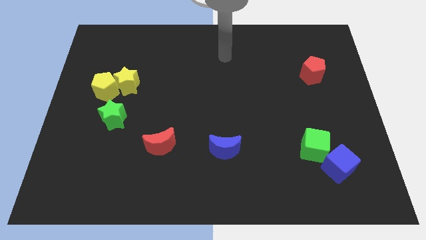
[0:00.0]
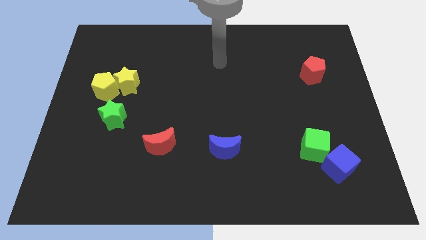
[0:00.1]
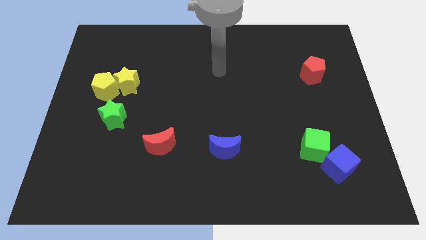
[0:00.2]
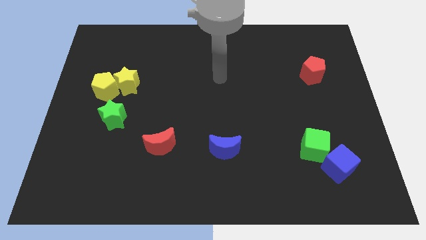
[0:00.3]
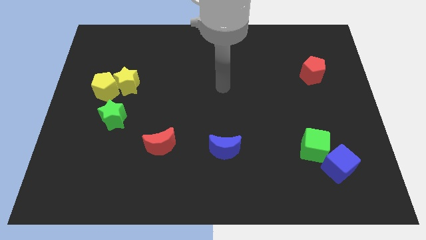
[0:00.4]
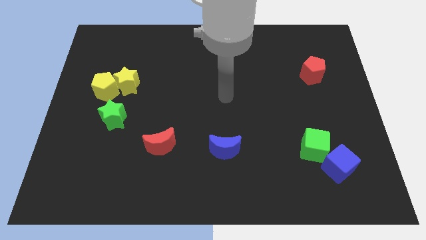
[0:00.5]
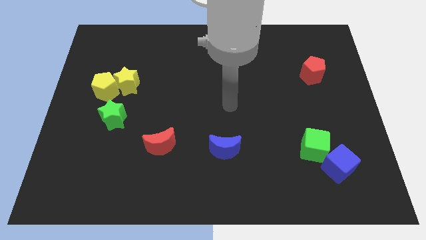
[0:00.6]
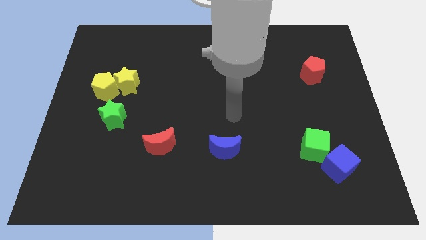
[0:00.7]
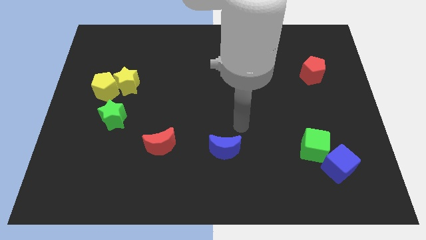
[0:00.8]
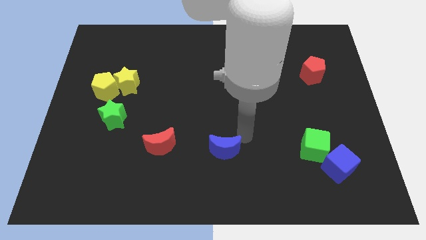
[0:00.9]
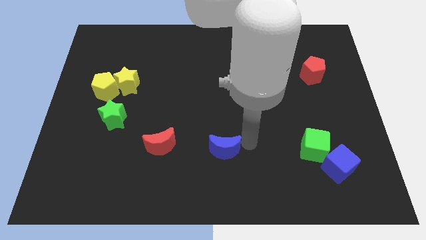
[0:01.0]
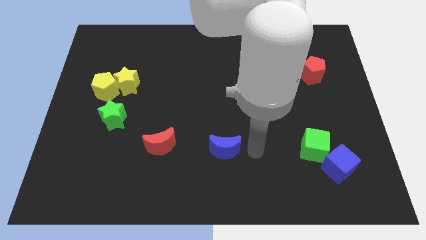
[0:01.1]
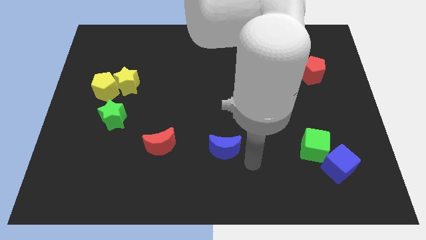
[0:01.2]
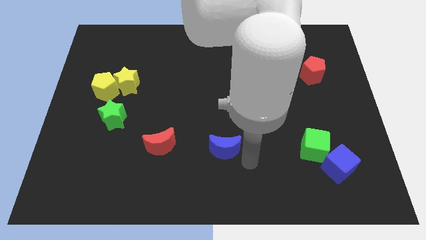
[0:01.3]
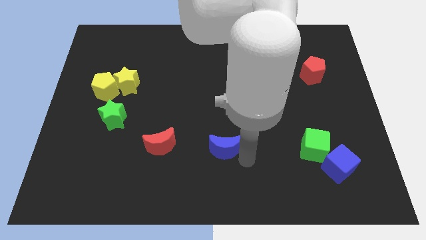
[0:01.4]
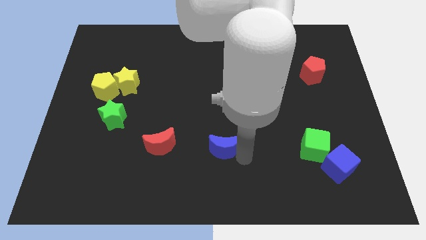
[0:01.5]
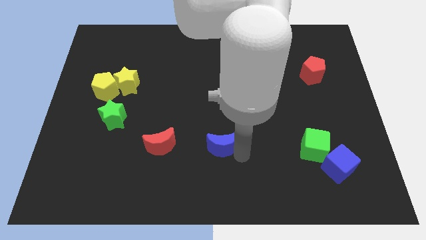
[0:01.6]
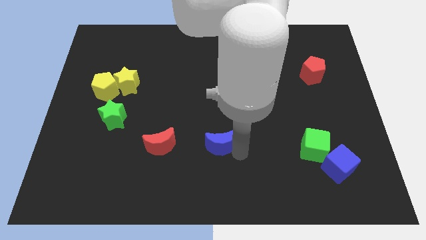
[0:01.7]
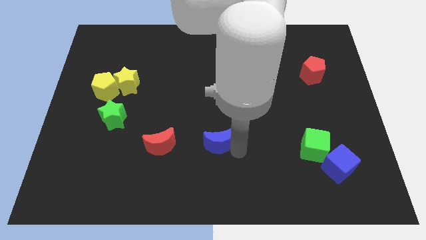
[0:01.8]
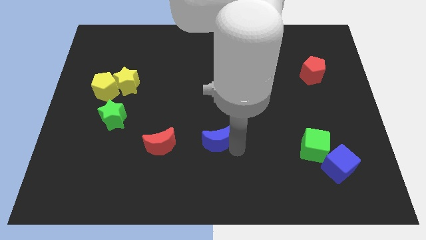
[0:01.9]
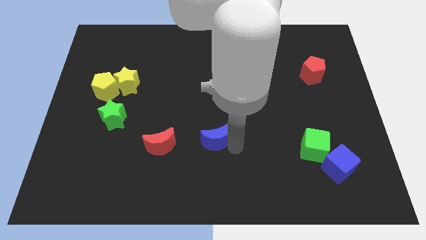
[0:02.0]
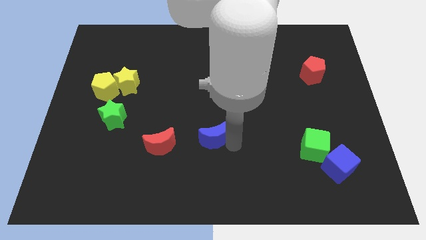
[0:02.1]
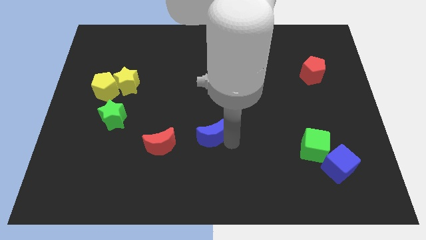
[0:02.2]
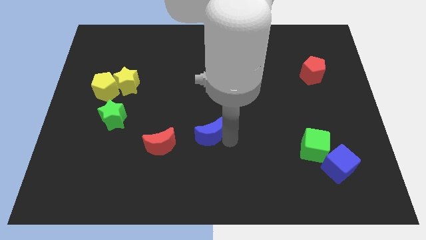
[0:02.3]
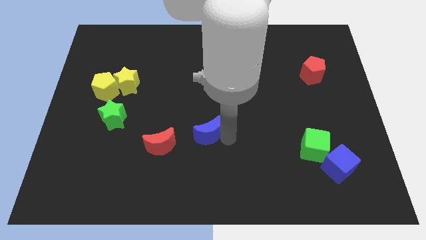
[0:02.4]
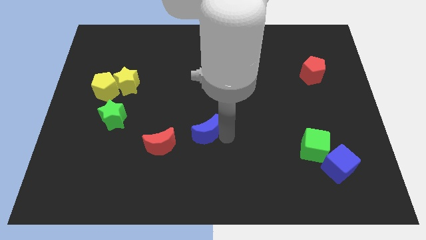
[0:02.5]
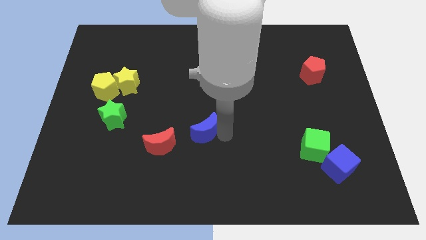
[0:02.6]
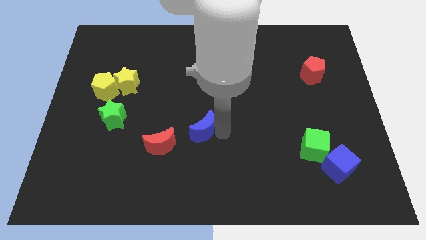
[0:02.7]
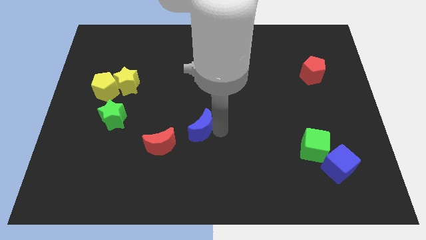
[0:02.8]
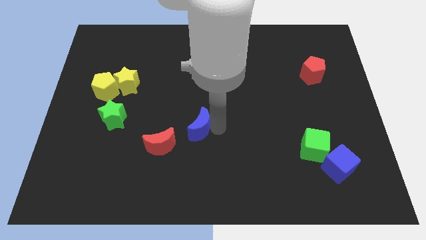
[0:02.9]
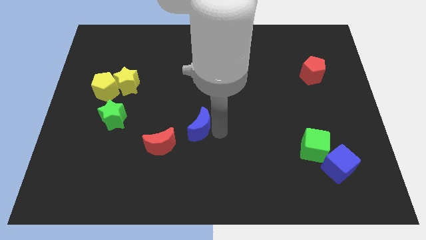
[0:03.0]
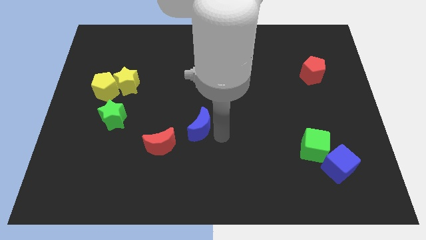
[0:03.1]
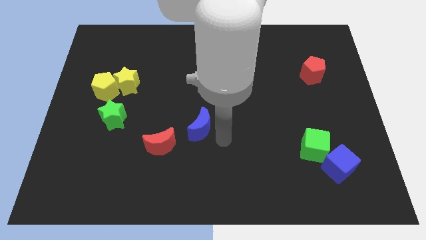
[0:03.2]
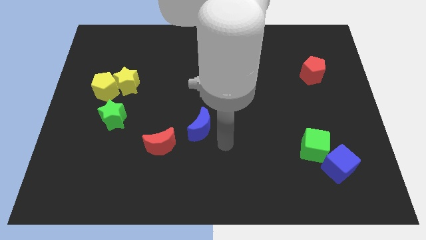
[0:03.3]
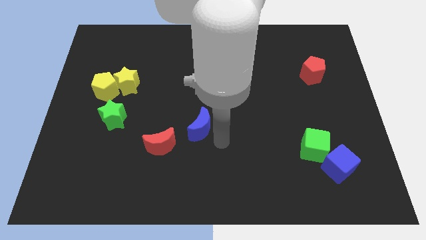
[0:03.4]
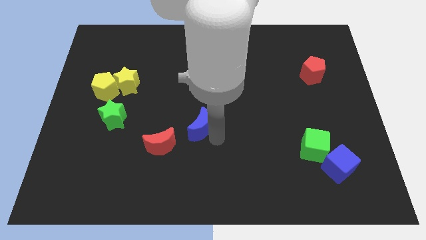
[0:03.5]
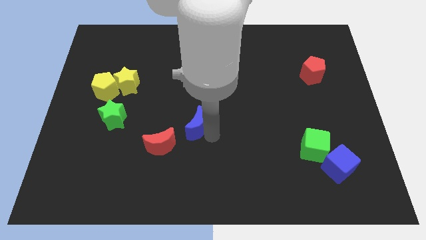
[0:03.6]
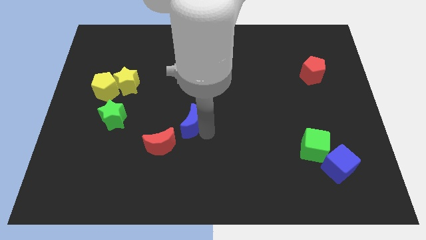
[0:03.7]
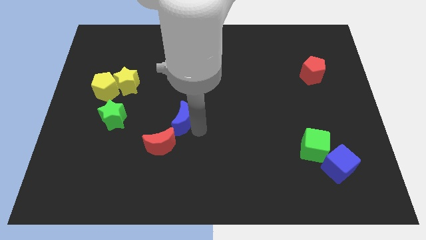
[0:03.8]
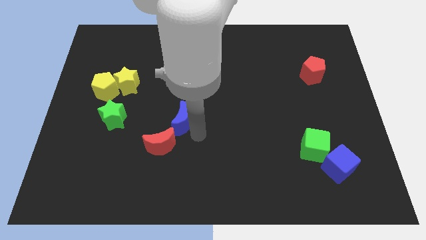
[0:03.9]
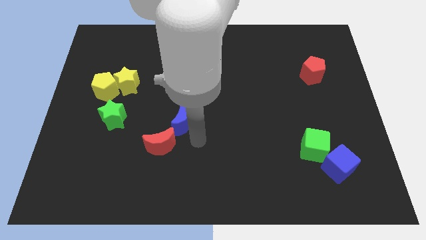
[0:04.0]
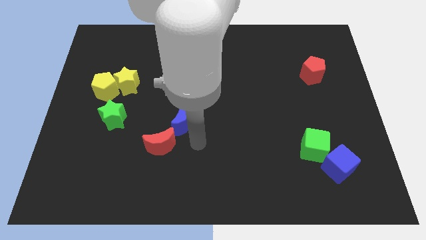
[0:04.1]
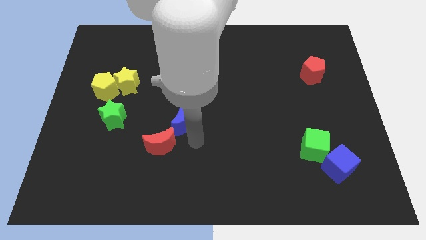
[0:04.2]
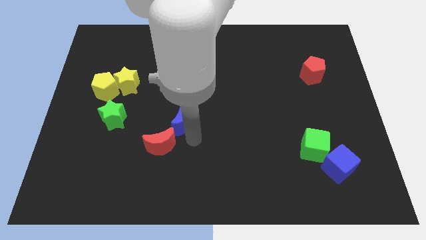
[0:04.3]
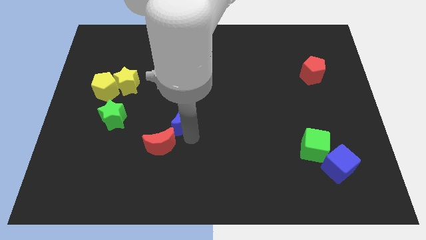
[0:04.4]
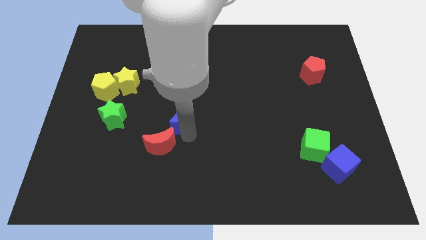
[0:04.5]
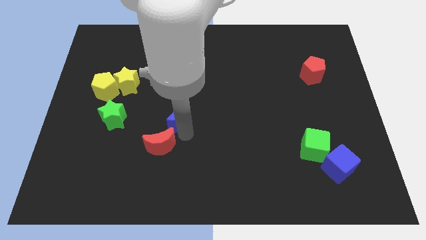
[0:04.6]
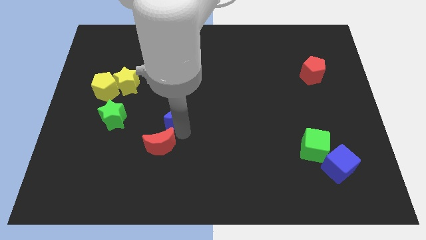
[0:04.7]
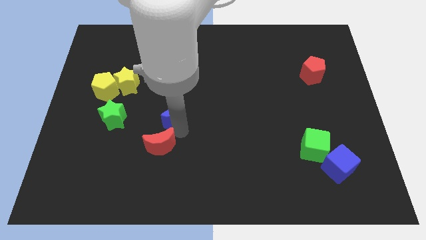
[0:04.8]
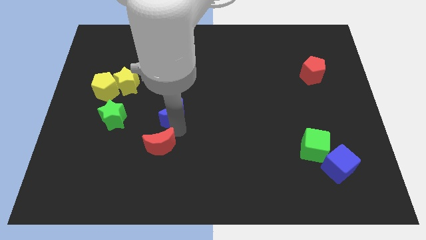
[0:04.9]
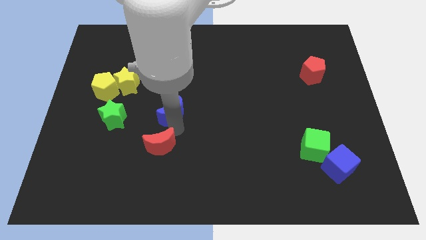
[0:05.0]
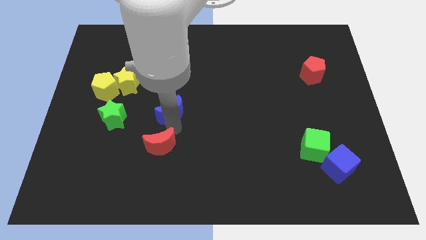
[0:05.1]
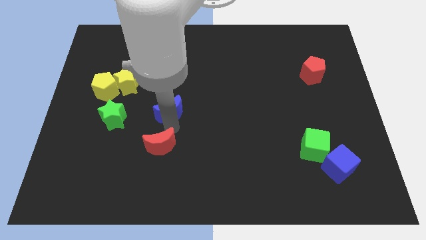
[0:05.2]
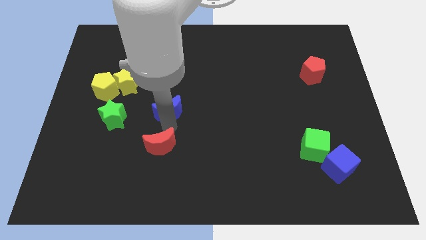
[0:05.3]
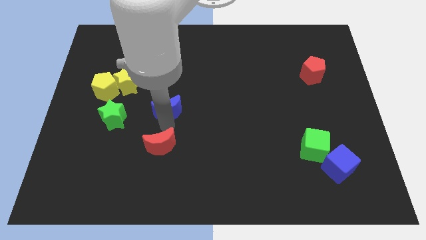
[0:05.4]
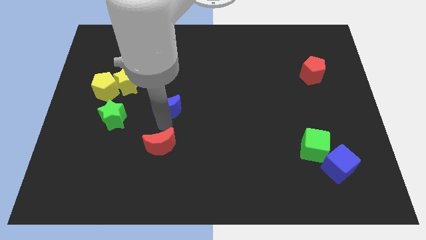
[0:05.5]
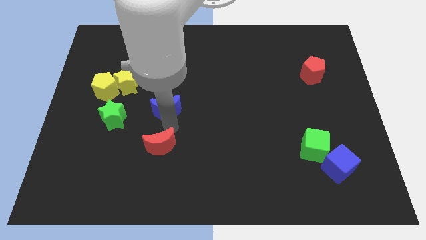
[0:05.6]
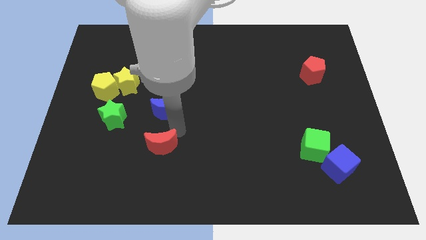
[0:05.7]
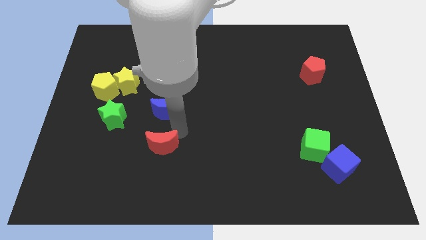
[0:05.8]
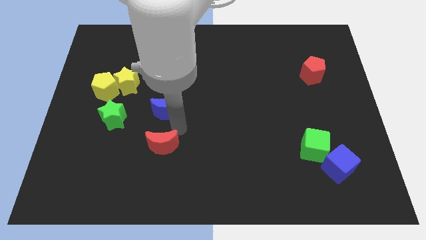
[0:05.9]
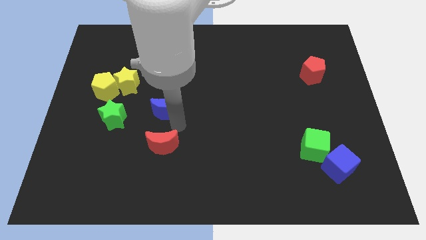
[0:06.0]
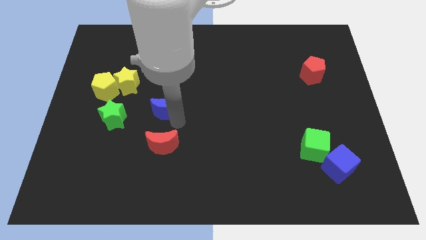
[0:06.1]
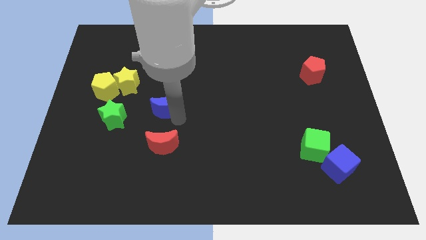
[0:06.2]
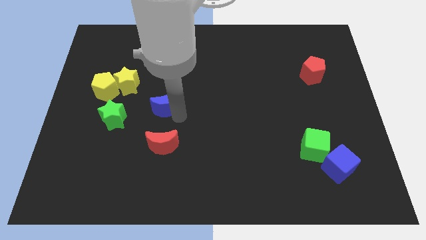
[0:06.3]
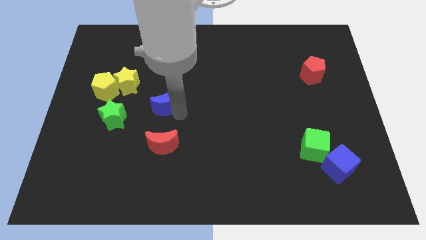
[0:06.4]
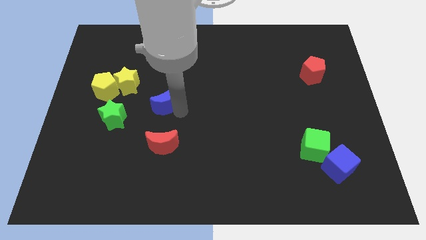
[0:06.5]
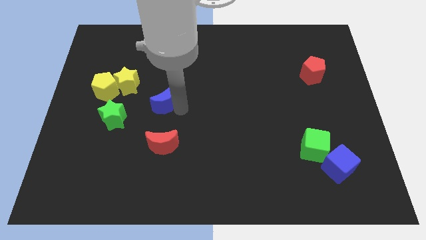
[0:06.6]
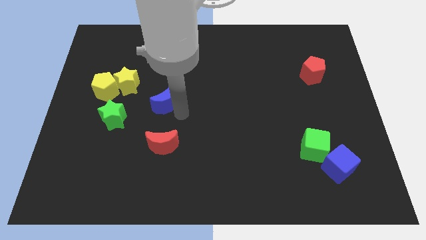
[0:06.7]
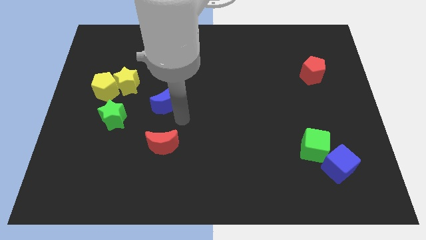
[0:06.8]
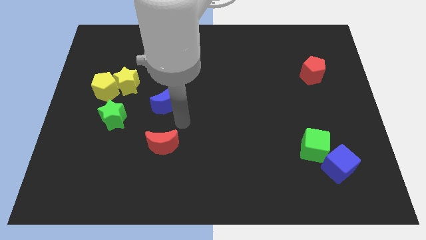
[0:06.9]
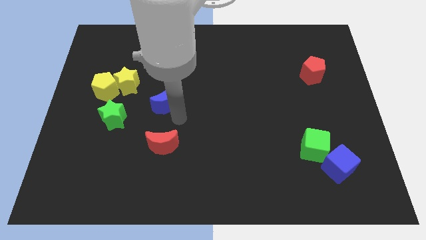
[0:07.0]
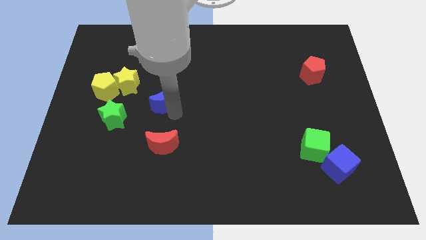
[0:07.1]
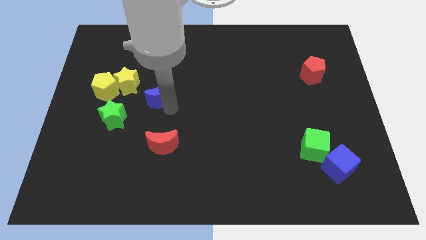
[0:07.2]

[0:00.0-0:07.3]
move the blue moon up and to the left

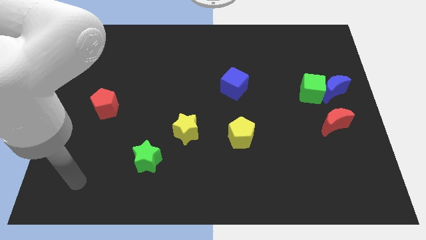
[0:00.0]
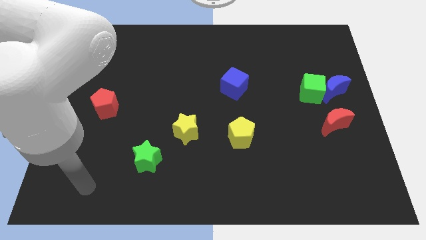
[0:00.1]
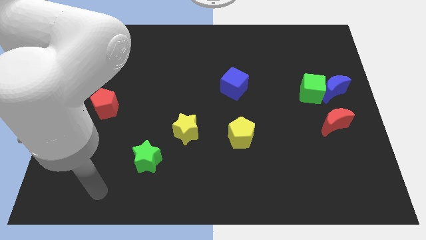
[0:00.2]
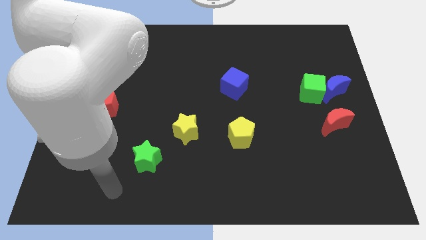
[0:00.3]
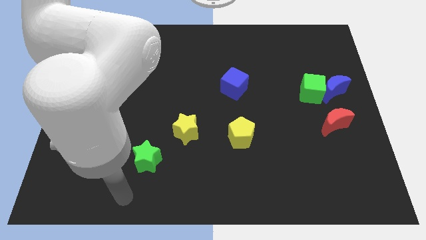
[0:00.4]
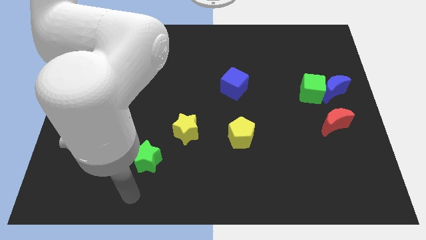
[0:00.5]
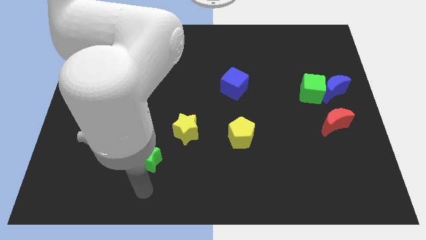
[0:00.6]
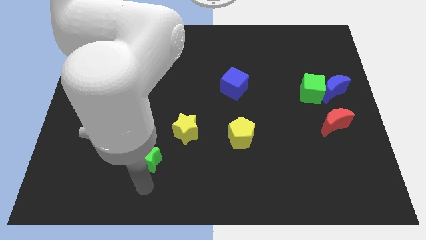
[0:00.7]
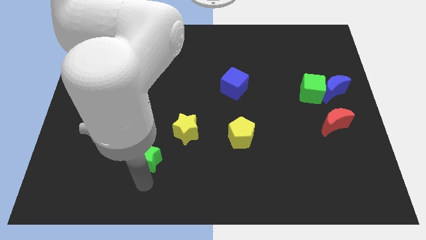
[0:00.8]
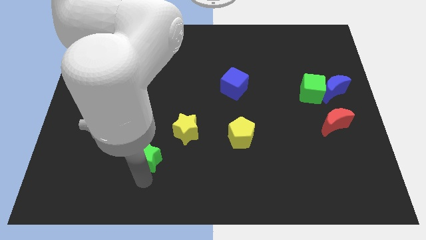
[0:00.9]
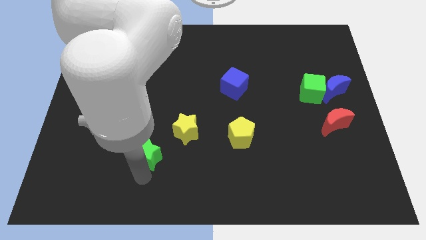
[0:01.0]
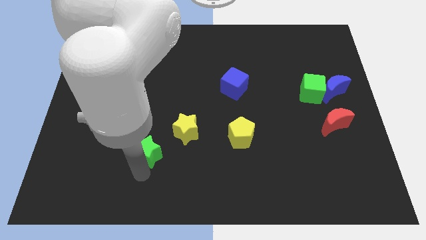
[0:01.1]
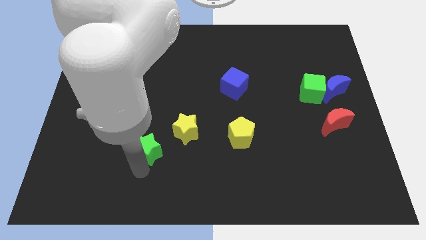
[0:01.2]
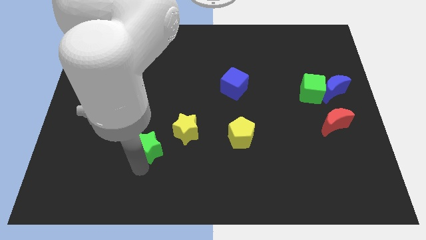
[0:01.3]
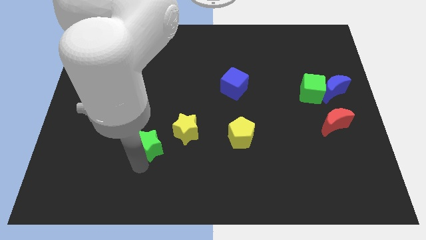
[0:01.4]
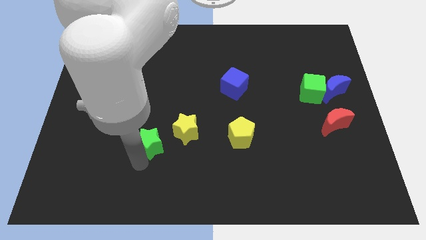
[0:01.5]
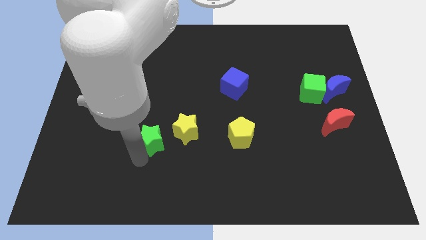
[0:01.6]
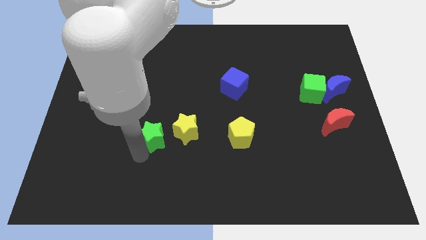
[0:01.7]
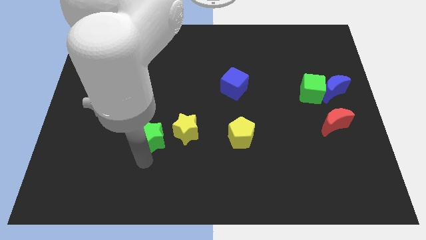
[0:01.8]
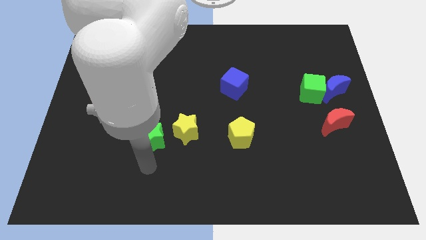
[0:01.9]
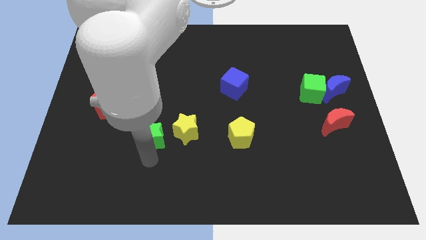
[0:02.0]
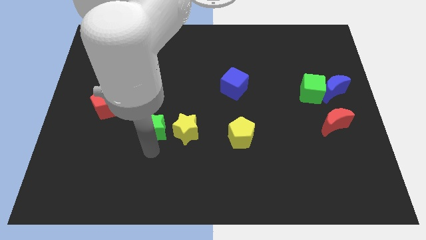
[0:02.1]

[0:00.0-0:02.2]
push the green star up slightly
